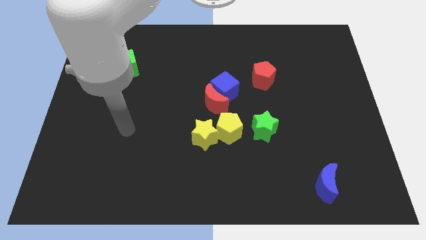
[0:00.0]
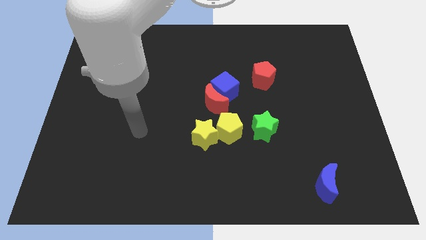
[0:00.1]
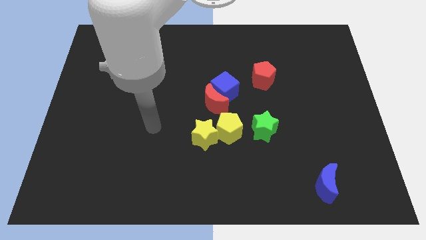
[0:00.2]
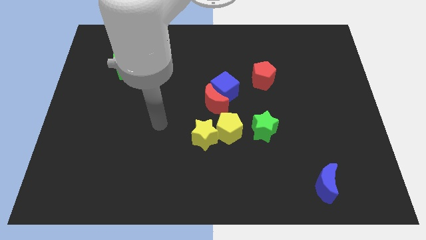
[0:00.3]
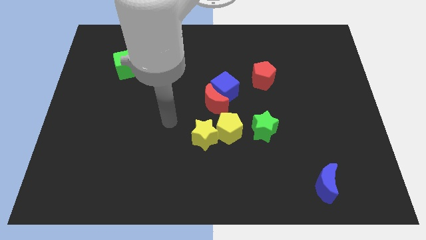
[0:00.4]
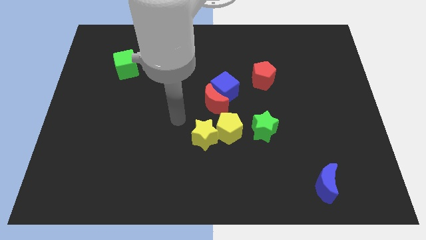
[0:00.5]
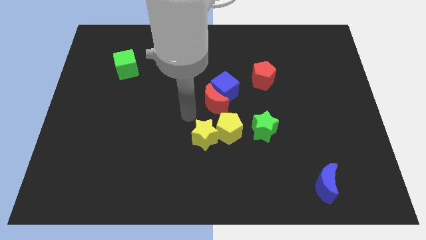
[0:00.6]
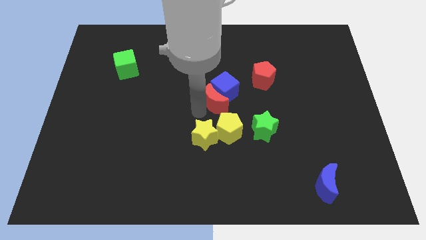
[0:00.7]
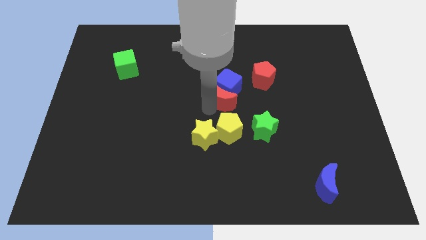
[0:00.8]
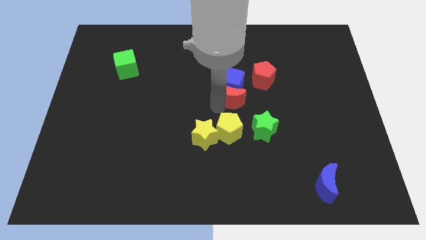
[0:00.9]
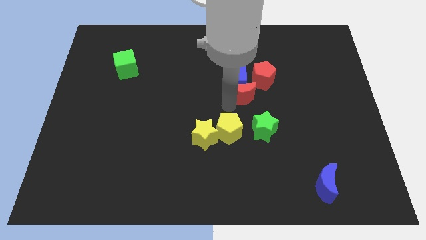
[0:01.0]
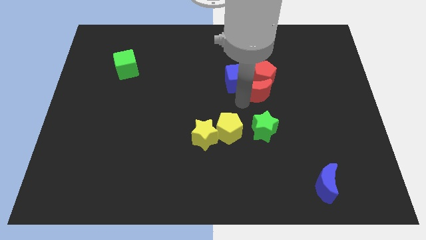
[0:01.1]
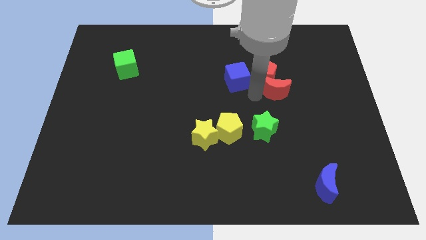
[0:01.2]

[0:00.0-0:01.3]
move the blue cube away from the red moon

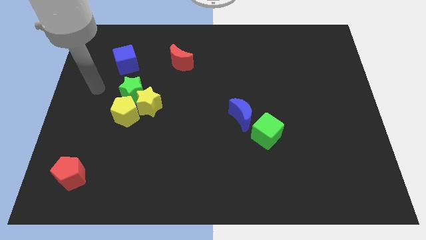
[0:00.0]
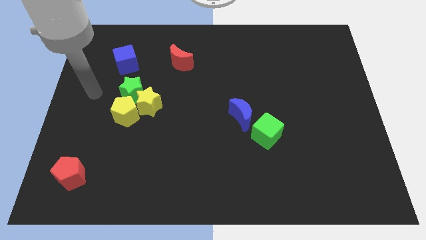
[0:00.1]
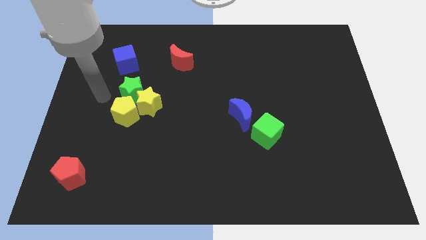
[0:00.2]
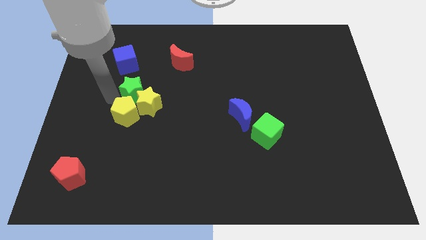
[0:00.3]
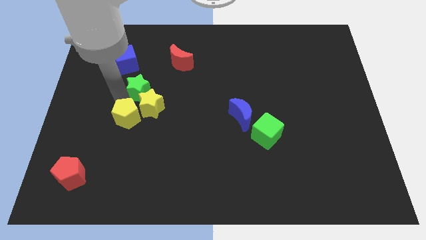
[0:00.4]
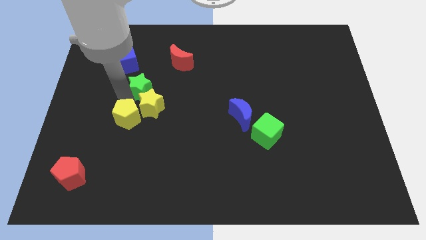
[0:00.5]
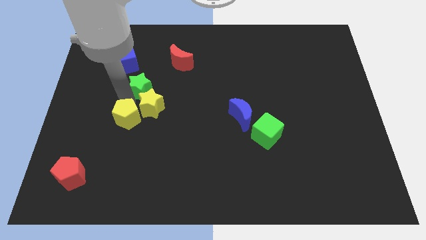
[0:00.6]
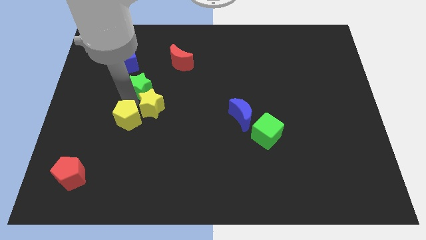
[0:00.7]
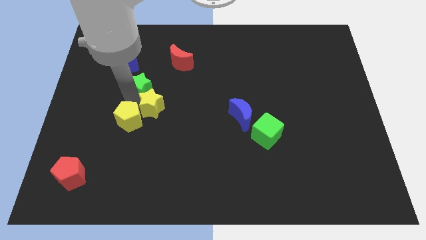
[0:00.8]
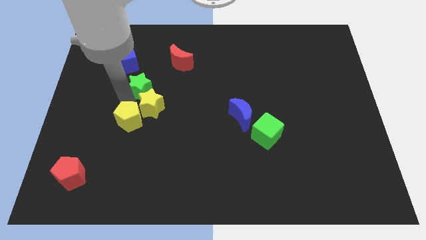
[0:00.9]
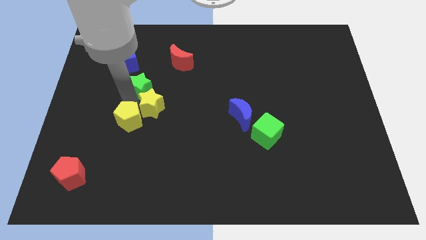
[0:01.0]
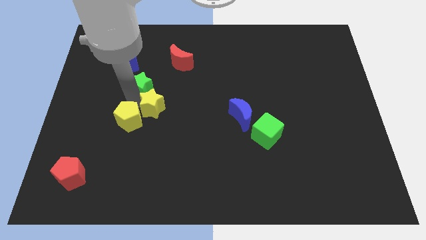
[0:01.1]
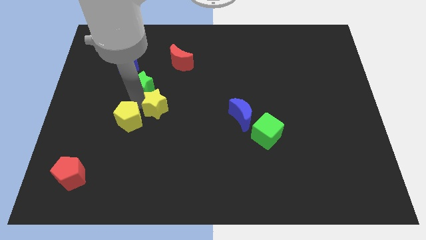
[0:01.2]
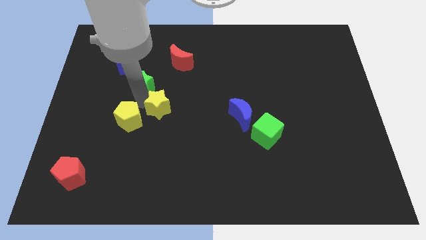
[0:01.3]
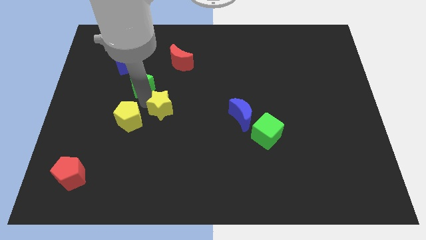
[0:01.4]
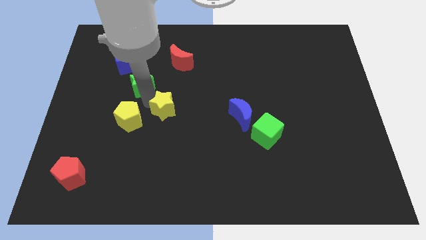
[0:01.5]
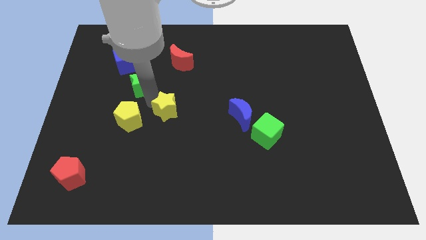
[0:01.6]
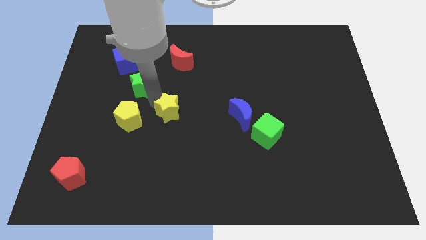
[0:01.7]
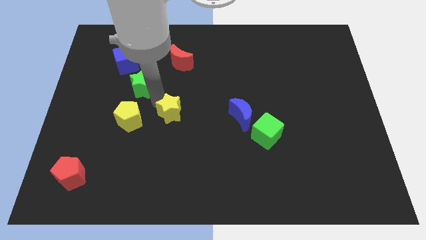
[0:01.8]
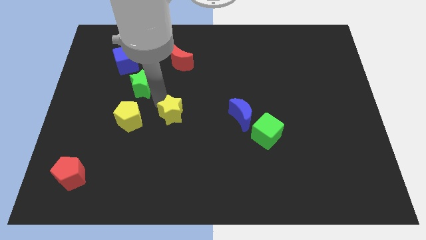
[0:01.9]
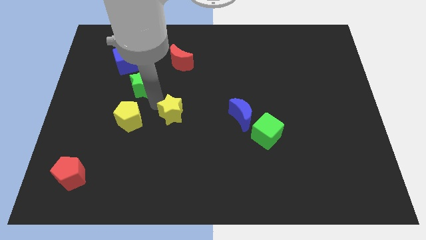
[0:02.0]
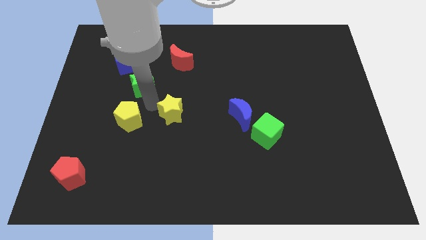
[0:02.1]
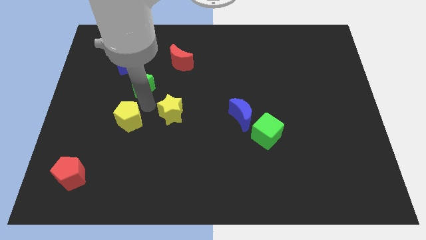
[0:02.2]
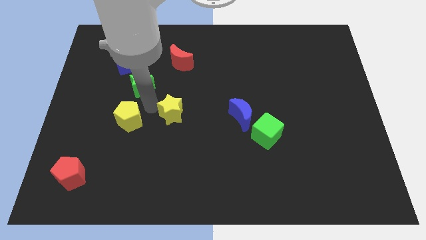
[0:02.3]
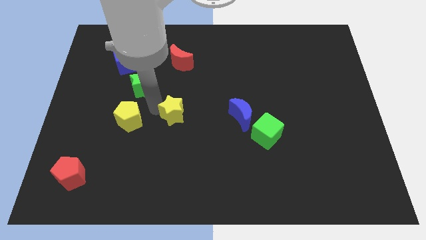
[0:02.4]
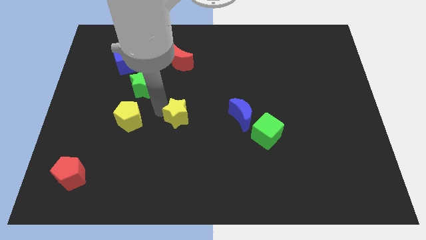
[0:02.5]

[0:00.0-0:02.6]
move the yellow star away from the yellow pentagon and green star

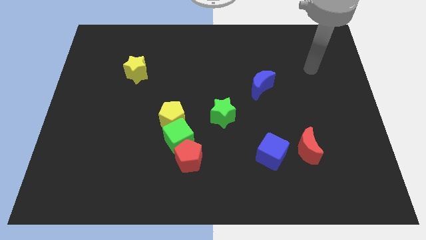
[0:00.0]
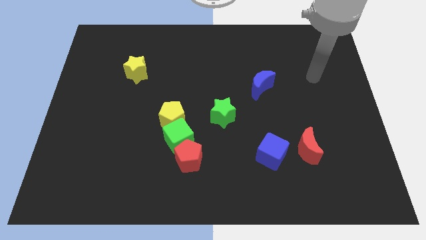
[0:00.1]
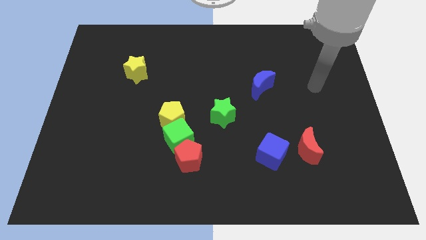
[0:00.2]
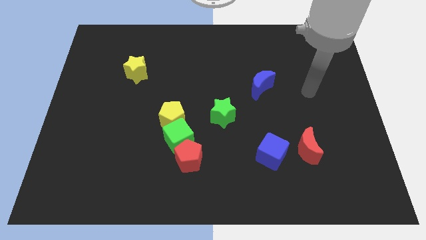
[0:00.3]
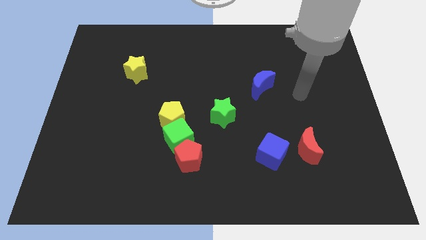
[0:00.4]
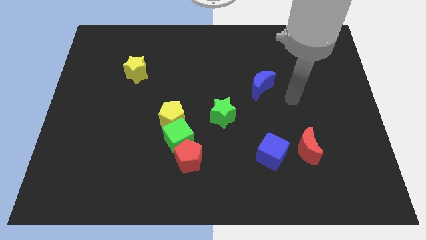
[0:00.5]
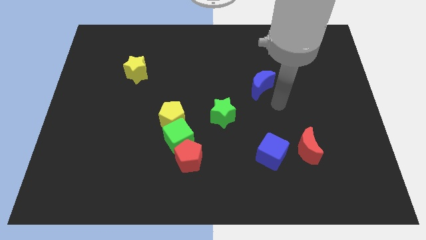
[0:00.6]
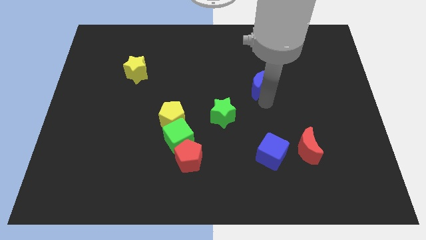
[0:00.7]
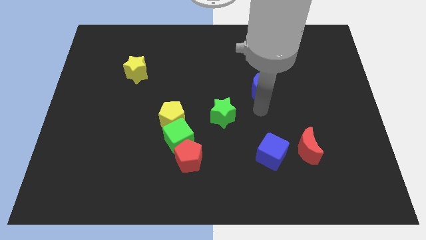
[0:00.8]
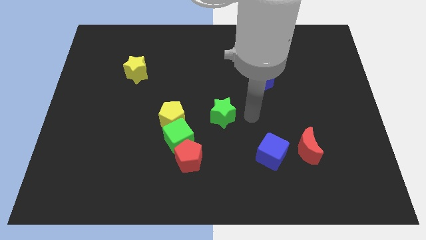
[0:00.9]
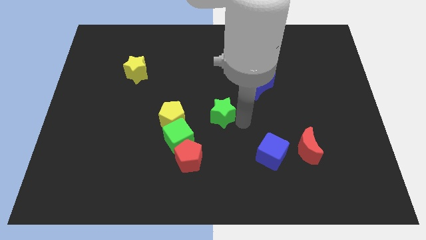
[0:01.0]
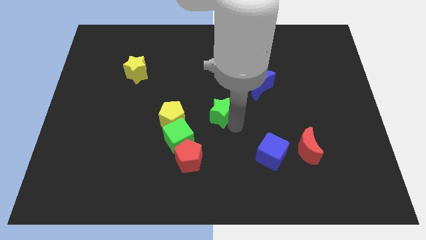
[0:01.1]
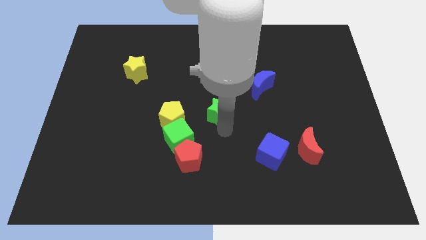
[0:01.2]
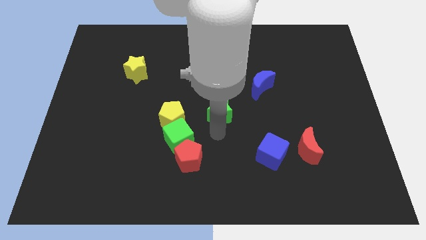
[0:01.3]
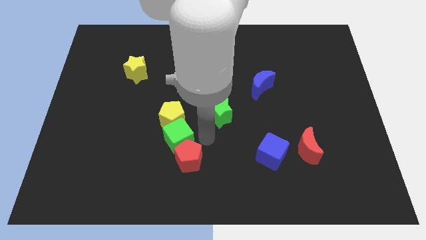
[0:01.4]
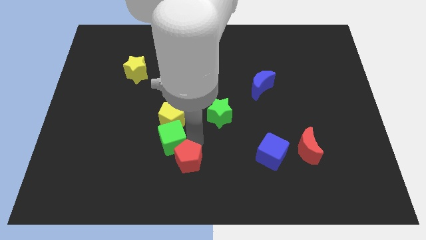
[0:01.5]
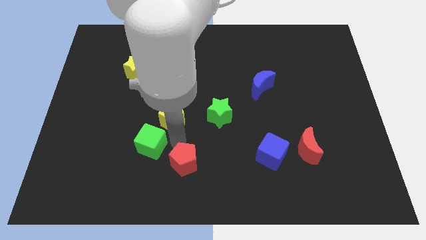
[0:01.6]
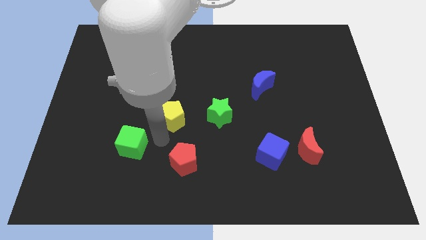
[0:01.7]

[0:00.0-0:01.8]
pull the yellow pentagon apart from the green cube

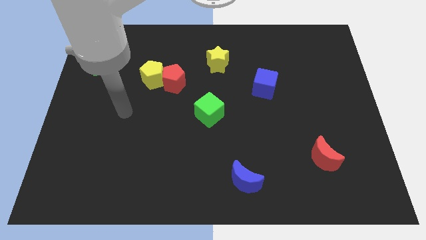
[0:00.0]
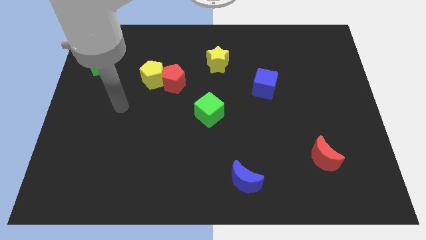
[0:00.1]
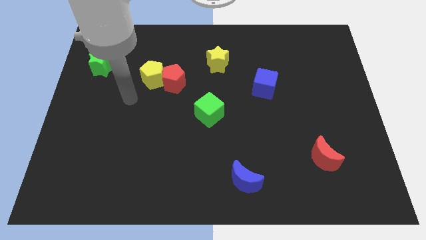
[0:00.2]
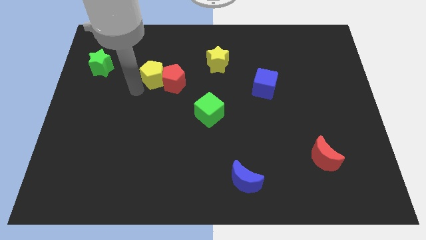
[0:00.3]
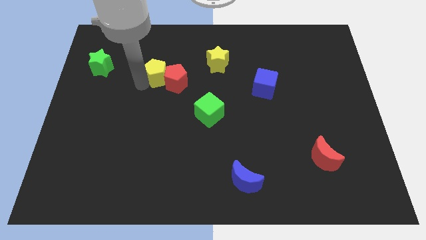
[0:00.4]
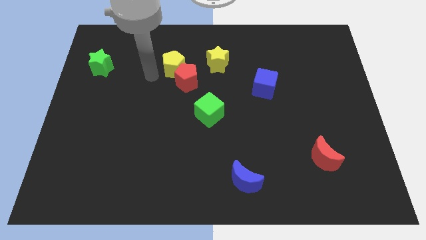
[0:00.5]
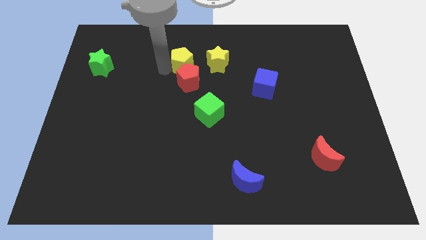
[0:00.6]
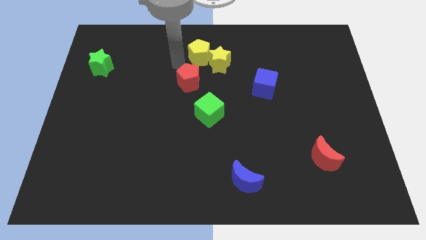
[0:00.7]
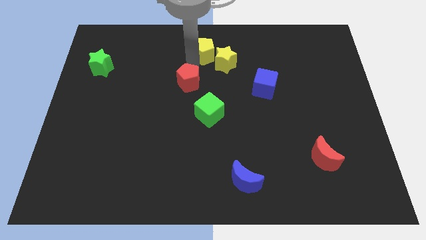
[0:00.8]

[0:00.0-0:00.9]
move the red pentagon away from the yellow pentagon

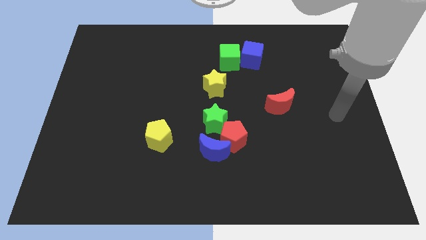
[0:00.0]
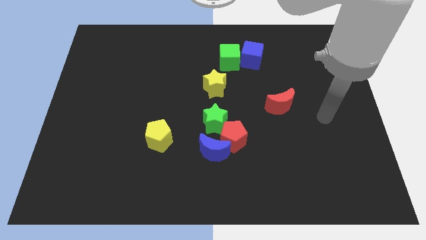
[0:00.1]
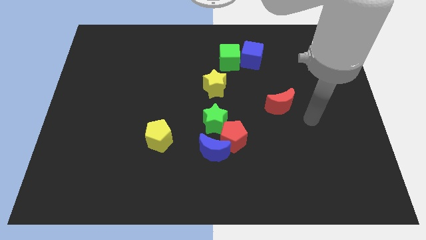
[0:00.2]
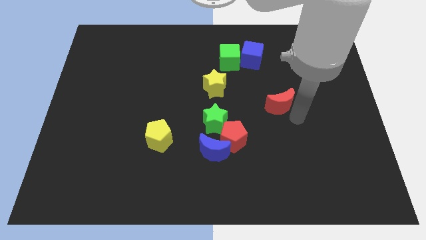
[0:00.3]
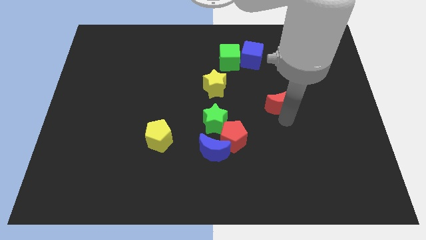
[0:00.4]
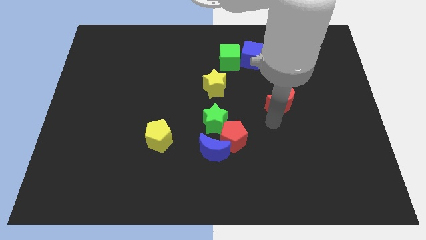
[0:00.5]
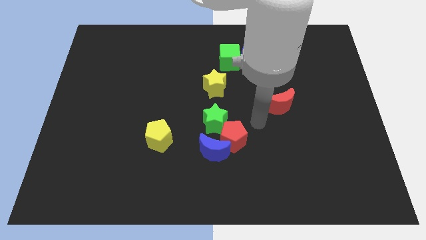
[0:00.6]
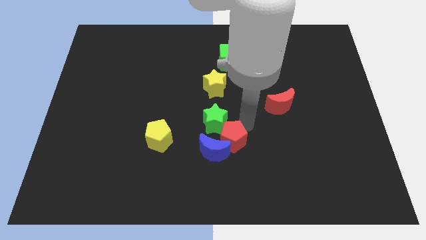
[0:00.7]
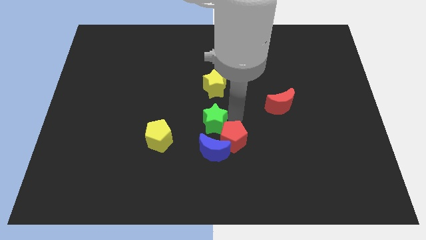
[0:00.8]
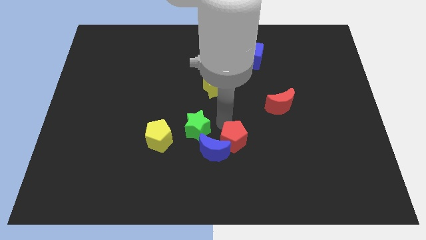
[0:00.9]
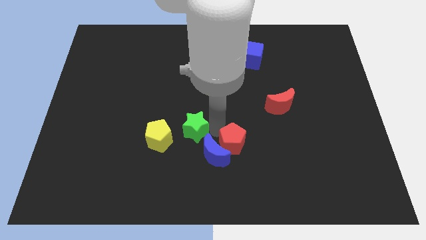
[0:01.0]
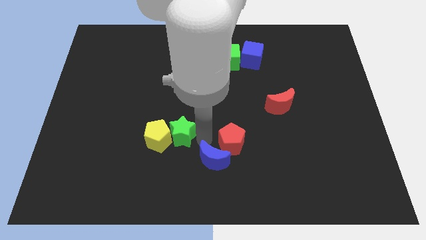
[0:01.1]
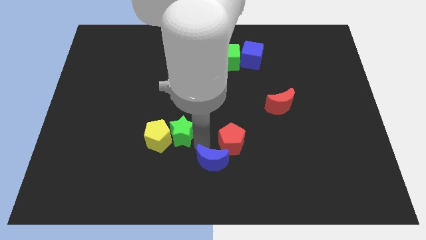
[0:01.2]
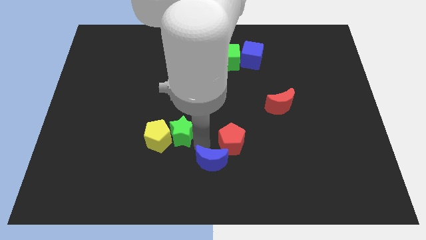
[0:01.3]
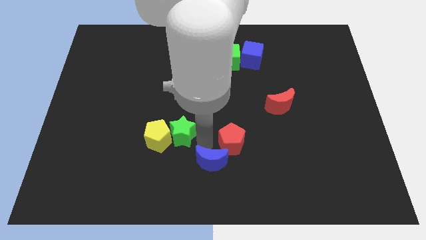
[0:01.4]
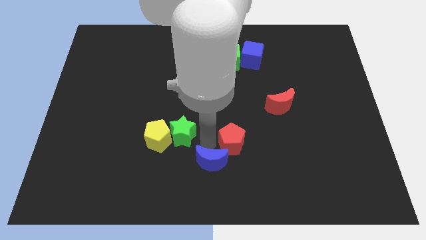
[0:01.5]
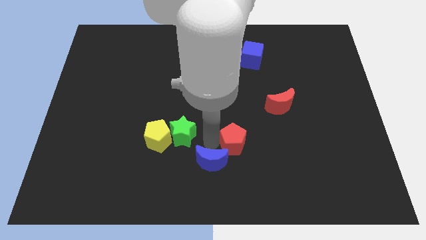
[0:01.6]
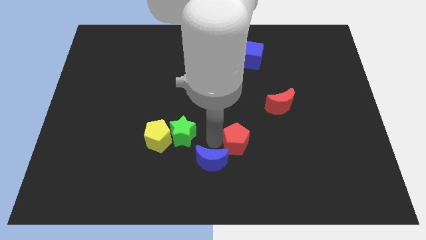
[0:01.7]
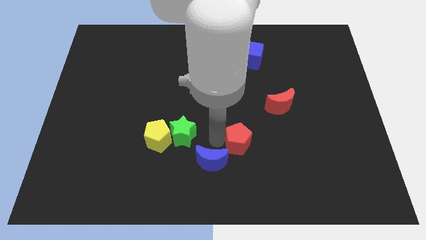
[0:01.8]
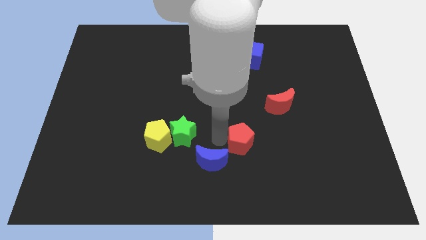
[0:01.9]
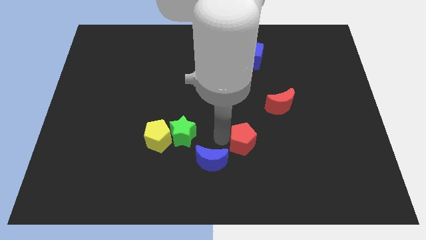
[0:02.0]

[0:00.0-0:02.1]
separate the red pentagon from the blue moon and green star

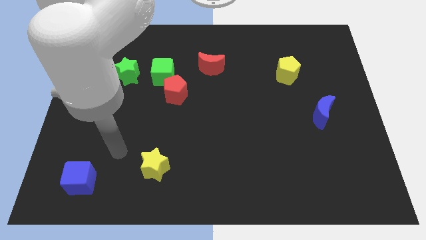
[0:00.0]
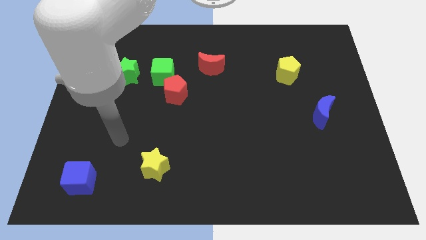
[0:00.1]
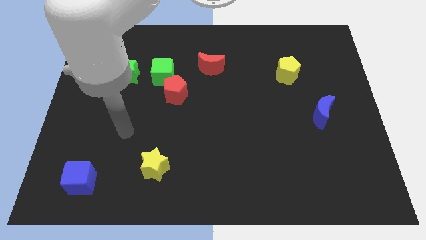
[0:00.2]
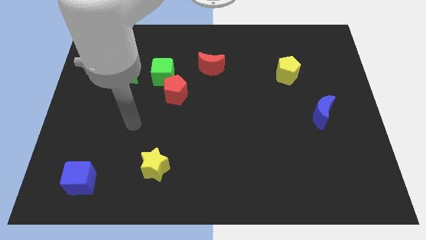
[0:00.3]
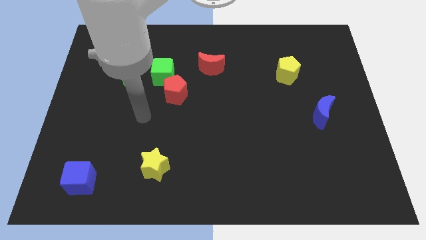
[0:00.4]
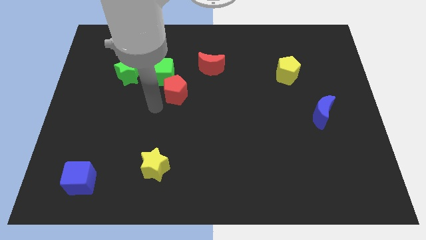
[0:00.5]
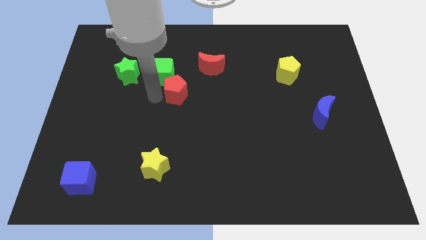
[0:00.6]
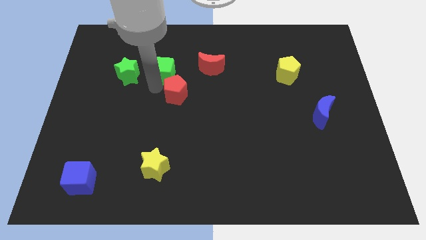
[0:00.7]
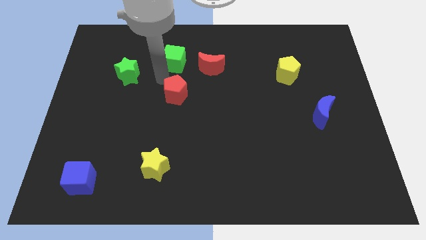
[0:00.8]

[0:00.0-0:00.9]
separate the red pentagon from the green cube
